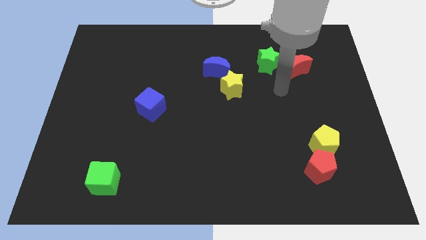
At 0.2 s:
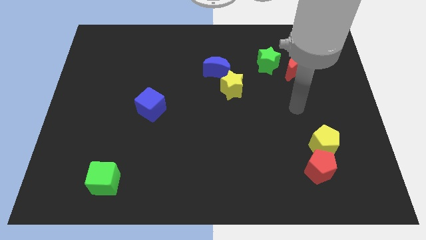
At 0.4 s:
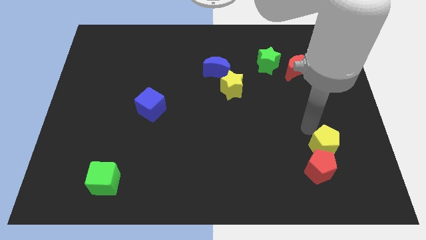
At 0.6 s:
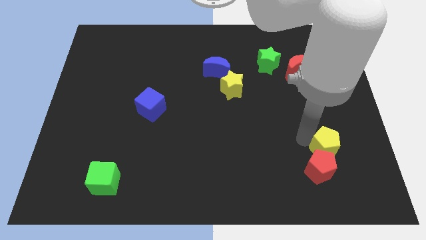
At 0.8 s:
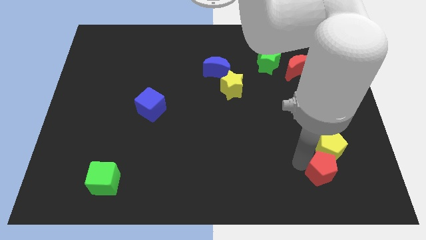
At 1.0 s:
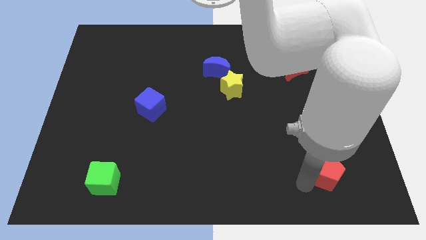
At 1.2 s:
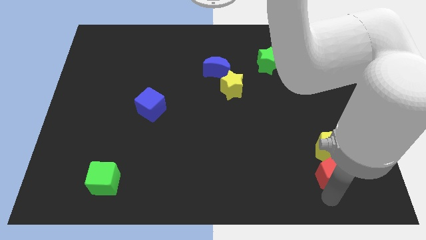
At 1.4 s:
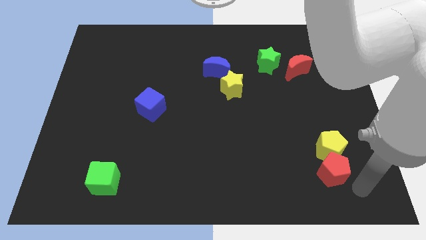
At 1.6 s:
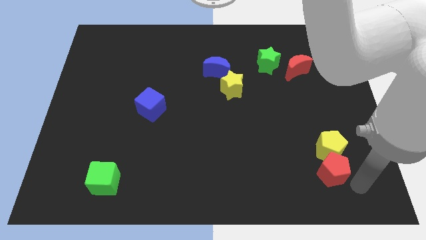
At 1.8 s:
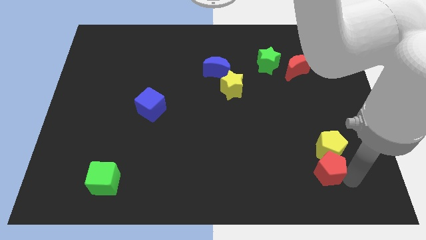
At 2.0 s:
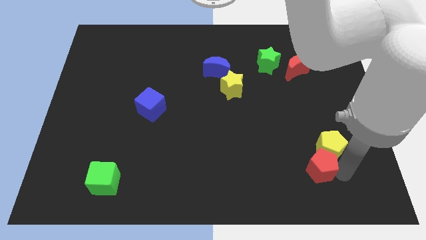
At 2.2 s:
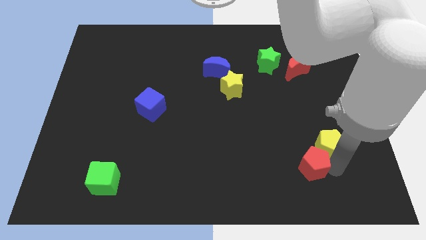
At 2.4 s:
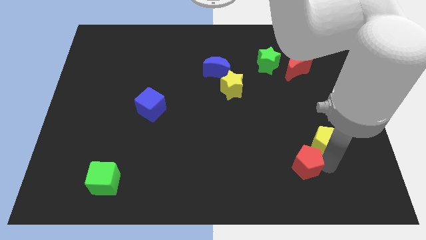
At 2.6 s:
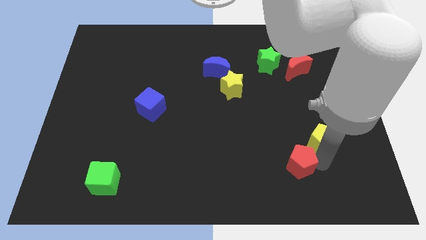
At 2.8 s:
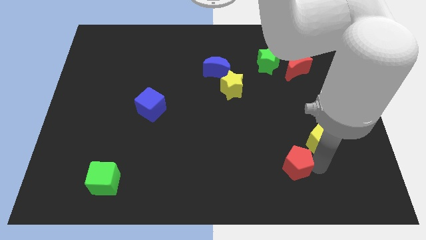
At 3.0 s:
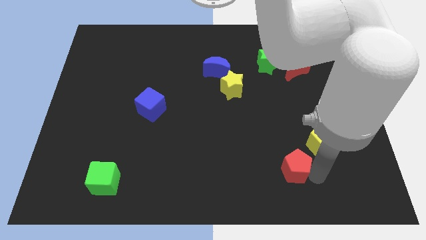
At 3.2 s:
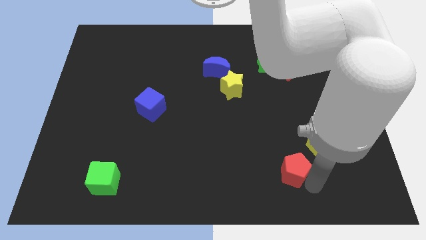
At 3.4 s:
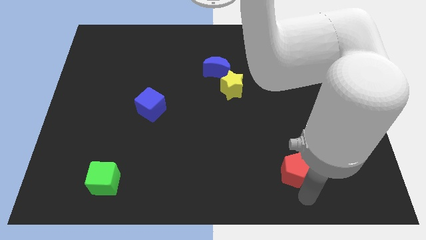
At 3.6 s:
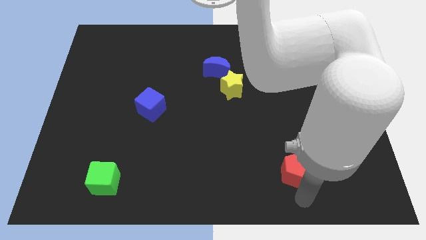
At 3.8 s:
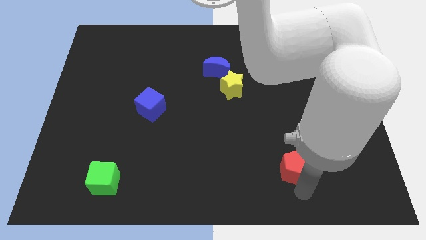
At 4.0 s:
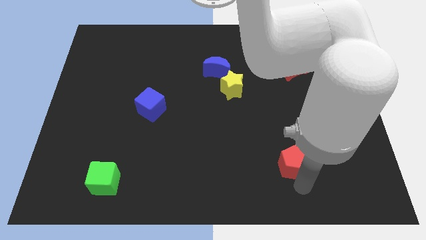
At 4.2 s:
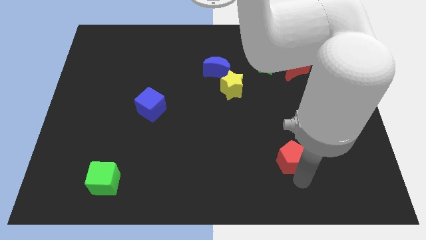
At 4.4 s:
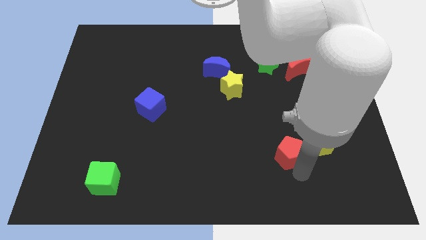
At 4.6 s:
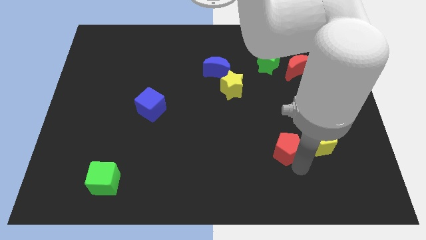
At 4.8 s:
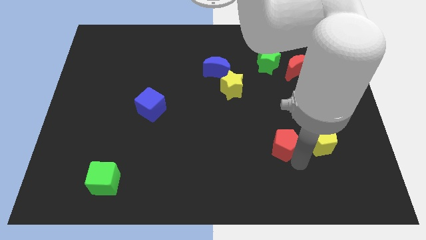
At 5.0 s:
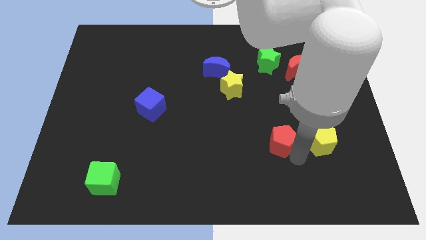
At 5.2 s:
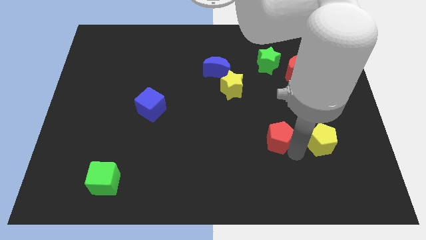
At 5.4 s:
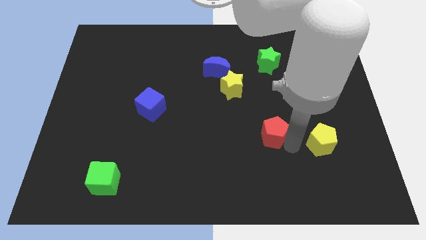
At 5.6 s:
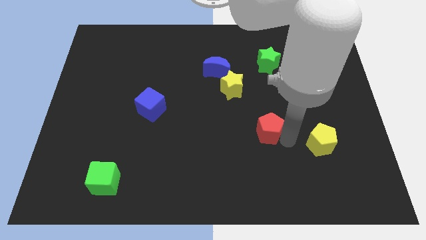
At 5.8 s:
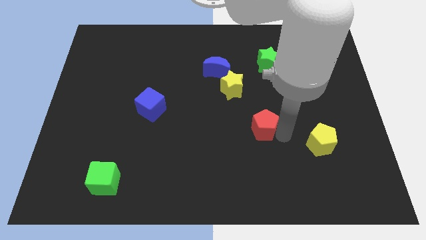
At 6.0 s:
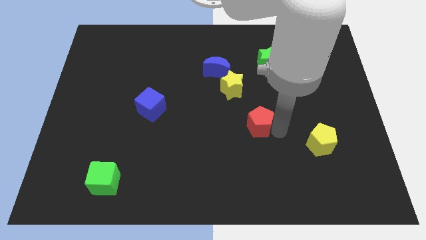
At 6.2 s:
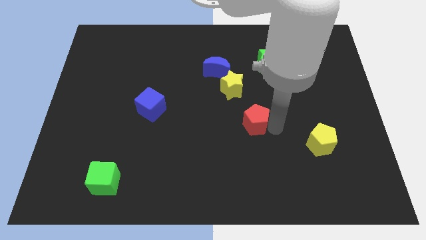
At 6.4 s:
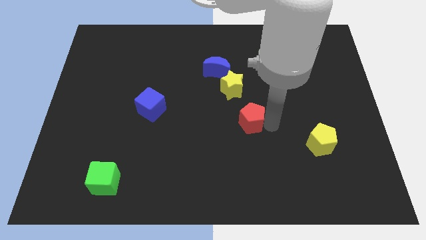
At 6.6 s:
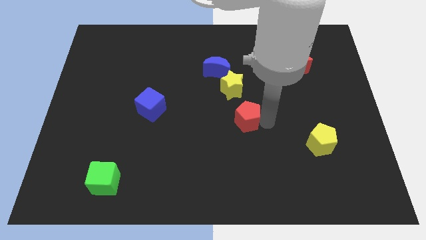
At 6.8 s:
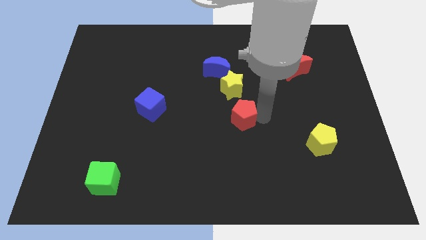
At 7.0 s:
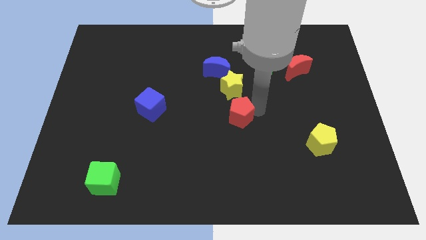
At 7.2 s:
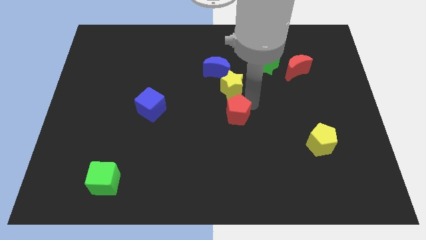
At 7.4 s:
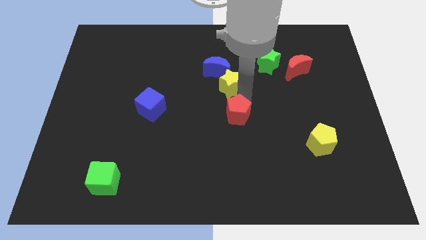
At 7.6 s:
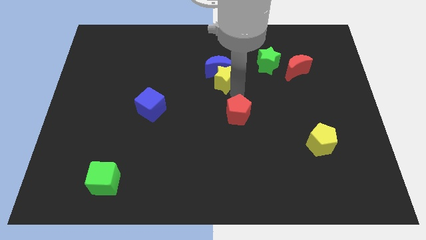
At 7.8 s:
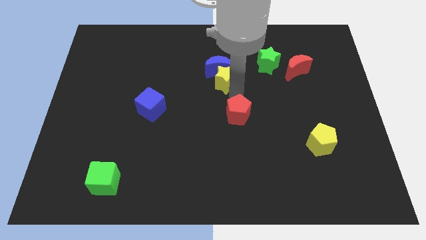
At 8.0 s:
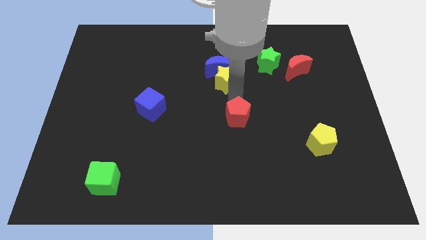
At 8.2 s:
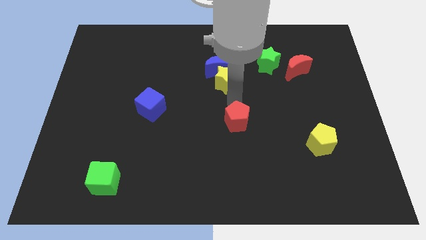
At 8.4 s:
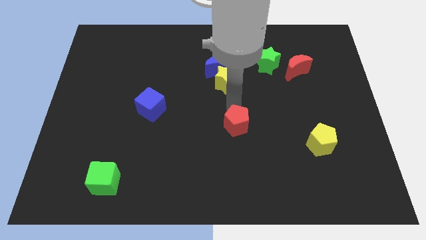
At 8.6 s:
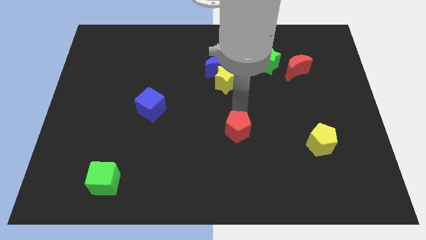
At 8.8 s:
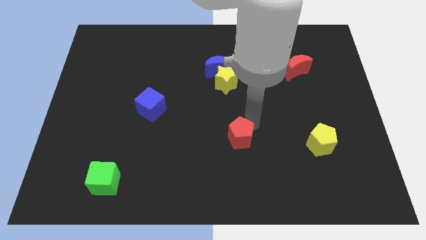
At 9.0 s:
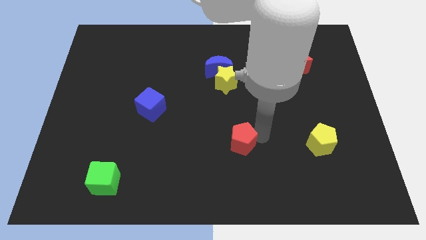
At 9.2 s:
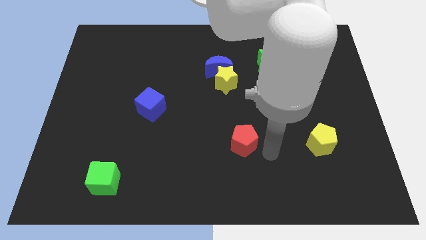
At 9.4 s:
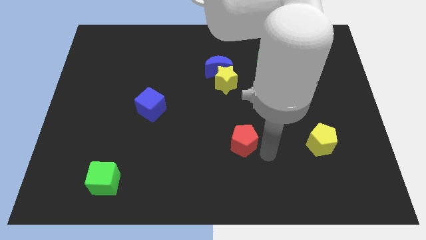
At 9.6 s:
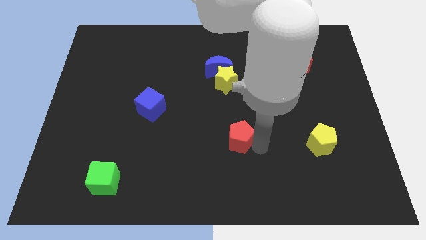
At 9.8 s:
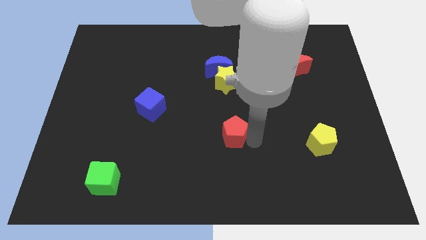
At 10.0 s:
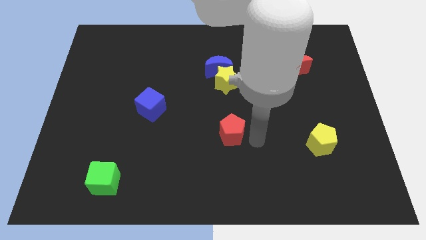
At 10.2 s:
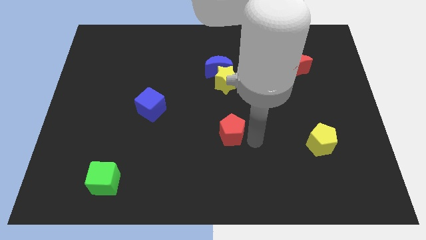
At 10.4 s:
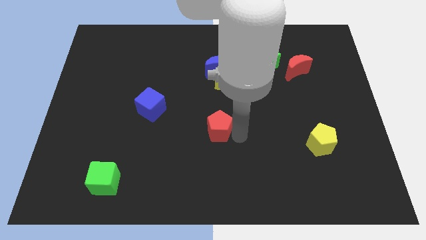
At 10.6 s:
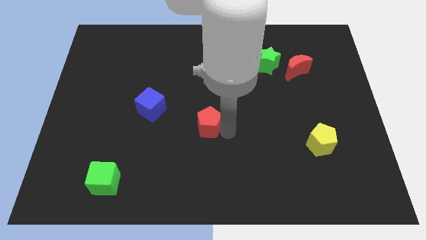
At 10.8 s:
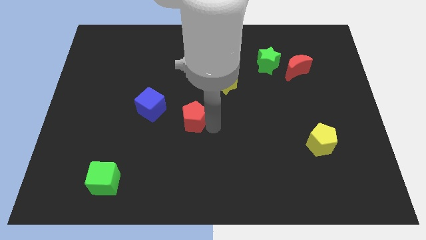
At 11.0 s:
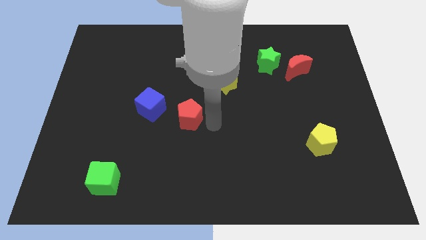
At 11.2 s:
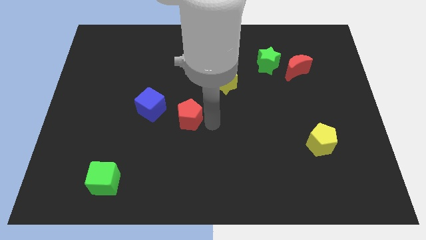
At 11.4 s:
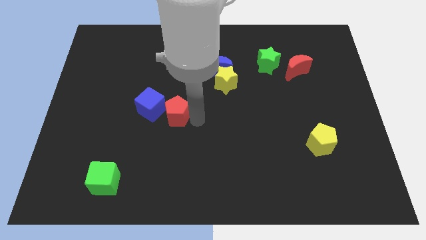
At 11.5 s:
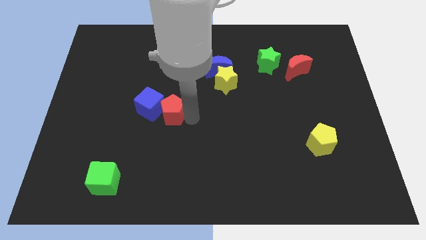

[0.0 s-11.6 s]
put the red pentagon towards the blue cube

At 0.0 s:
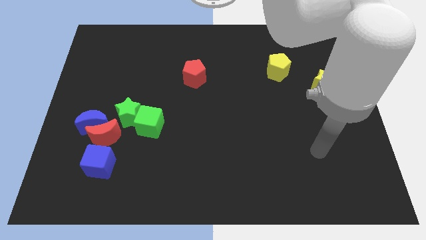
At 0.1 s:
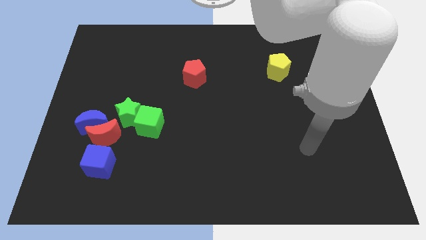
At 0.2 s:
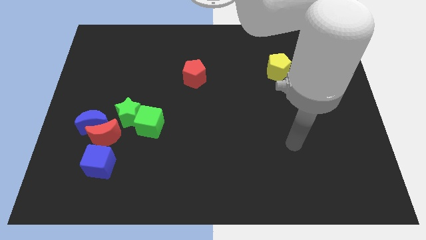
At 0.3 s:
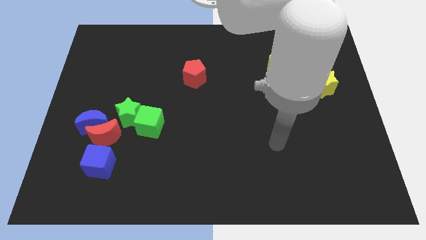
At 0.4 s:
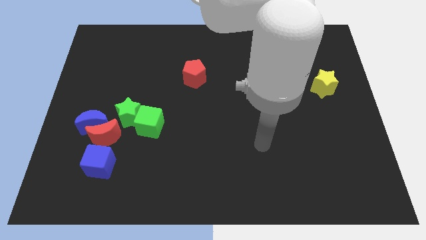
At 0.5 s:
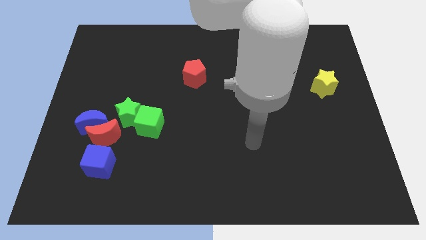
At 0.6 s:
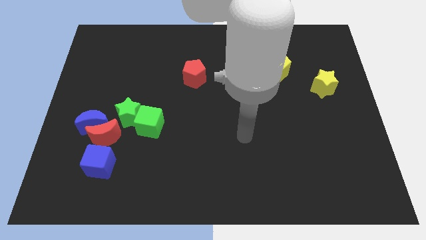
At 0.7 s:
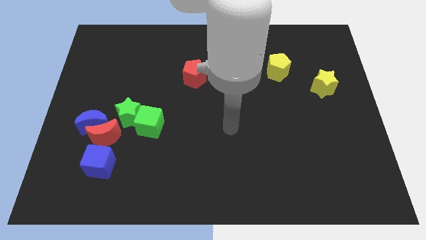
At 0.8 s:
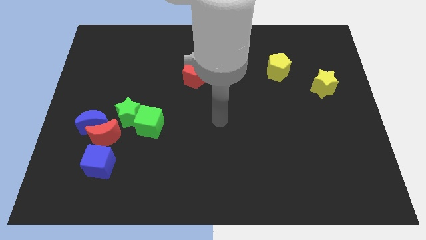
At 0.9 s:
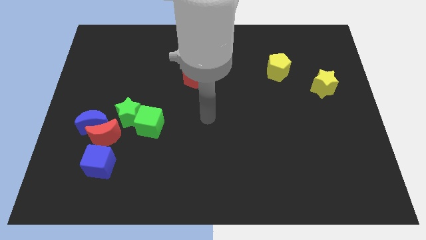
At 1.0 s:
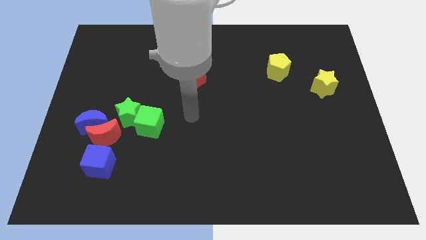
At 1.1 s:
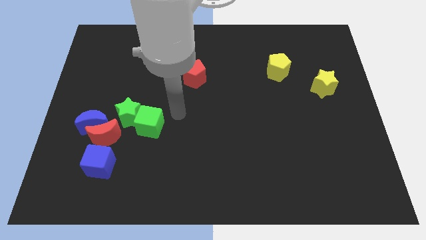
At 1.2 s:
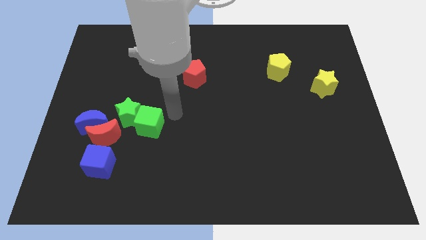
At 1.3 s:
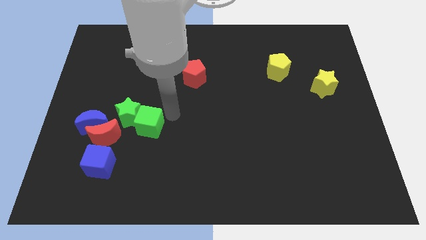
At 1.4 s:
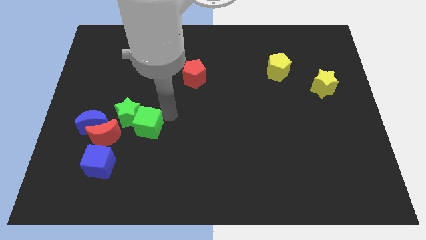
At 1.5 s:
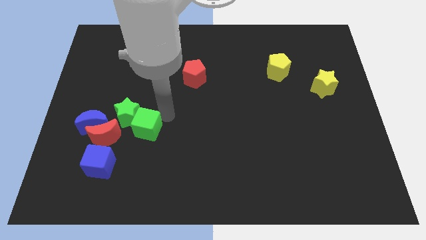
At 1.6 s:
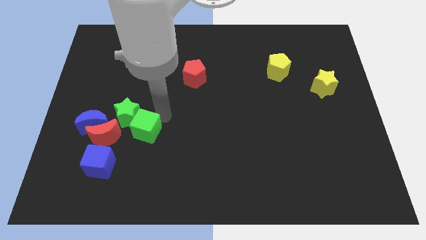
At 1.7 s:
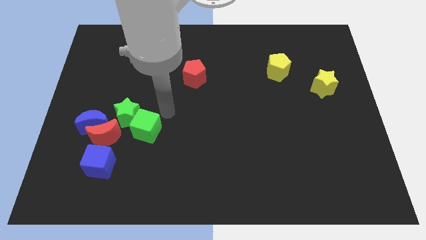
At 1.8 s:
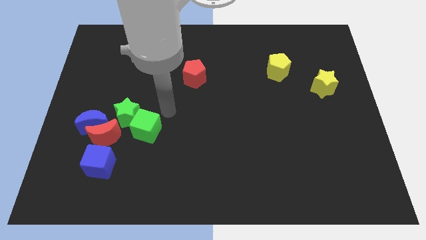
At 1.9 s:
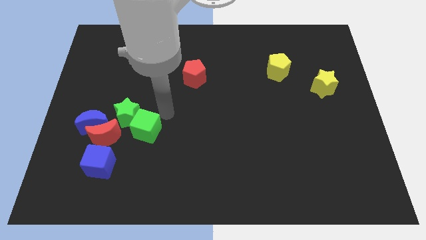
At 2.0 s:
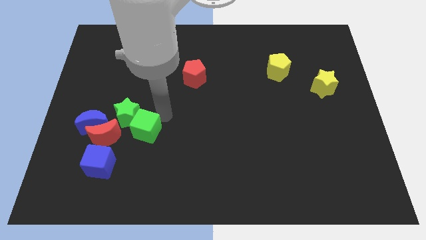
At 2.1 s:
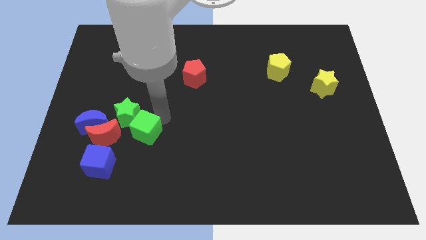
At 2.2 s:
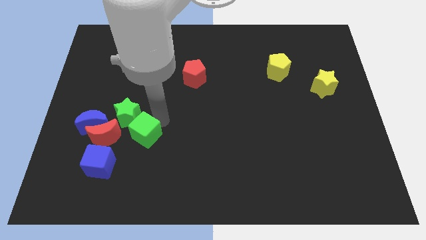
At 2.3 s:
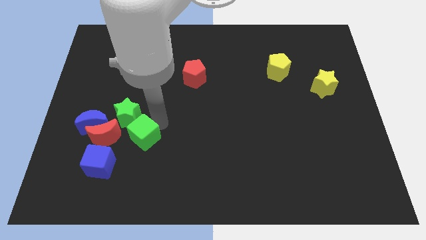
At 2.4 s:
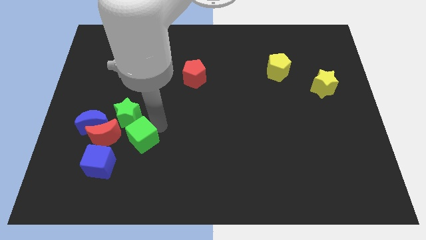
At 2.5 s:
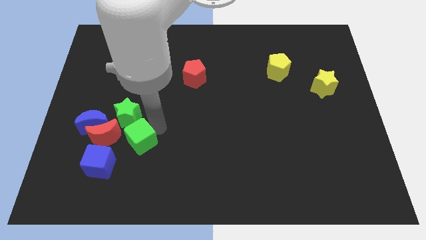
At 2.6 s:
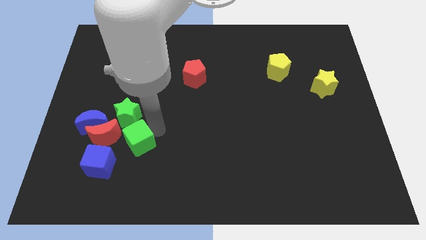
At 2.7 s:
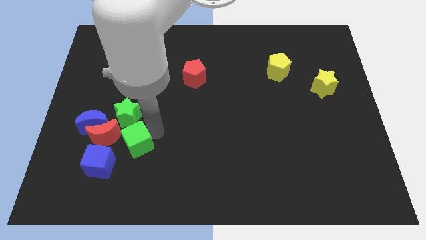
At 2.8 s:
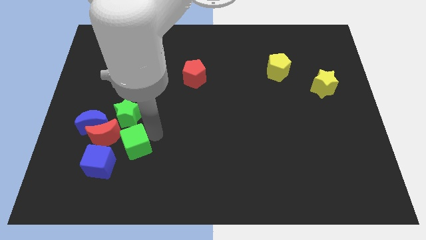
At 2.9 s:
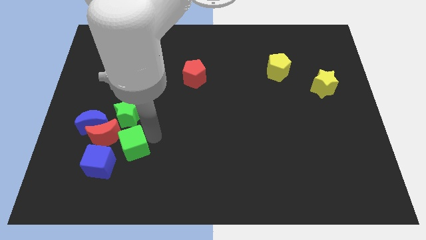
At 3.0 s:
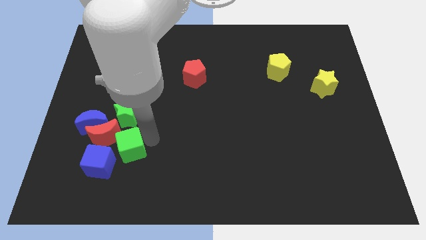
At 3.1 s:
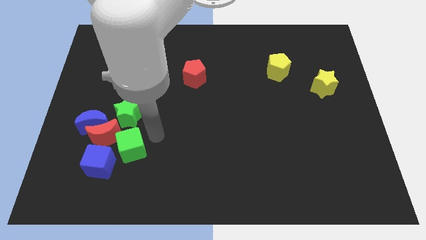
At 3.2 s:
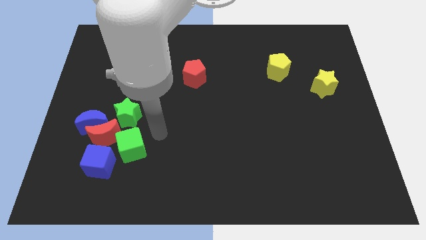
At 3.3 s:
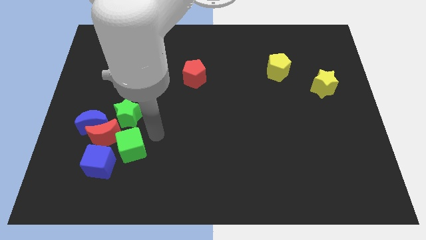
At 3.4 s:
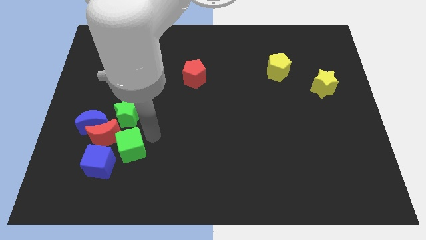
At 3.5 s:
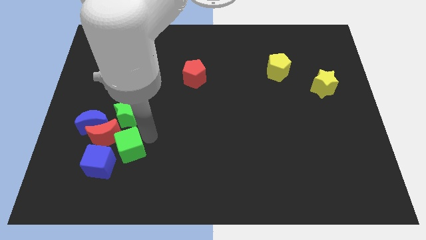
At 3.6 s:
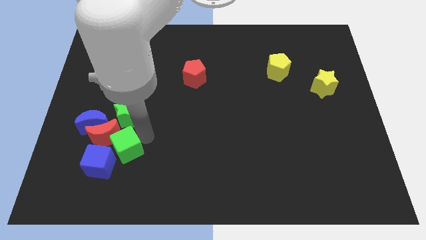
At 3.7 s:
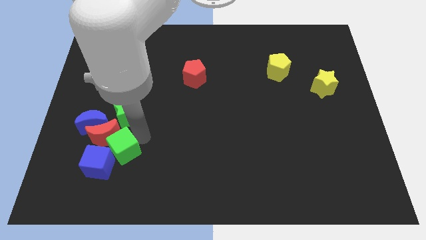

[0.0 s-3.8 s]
slide the green cube close to the blue cube
